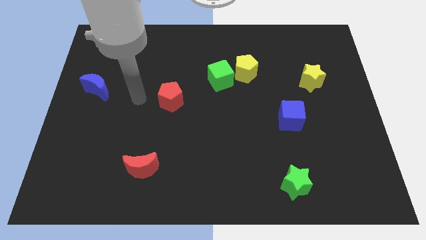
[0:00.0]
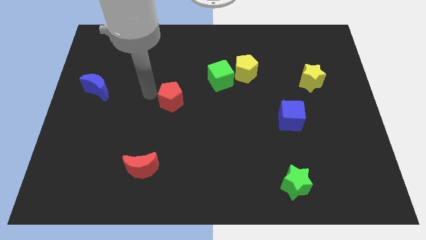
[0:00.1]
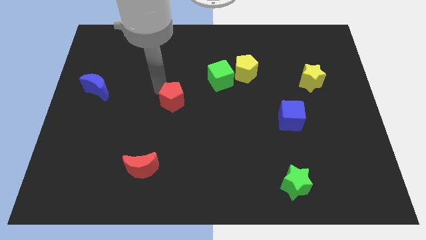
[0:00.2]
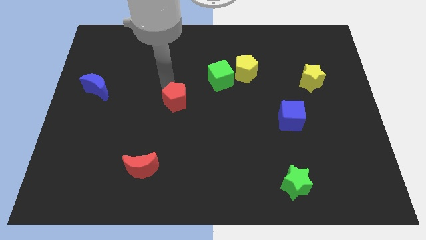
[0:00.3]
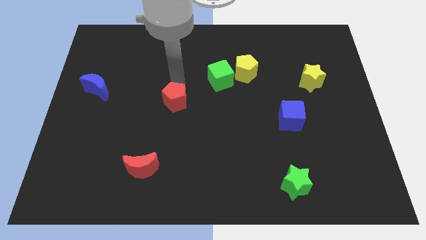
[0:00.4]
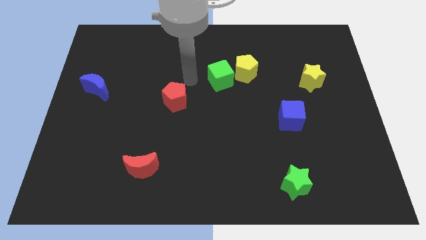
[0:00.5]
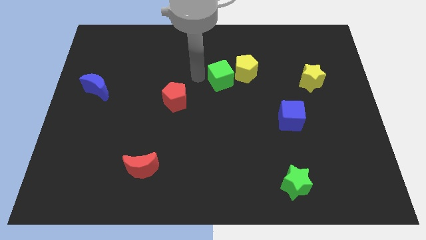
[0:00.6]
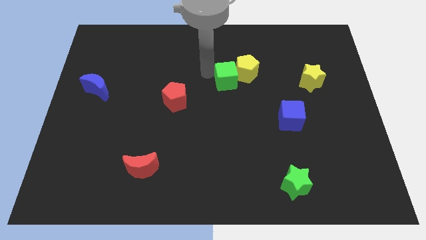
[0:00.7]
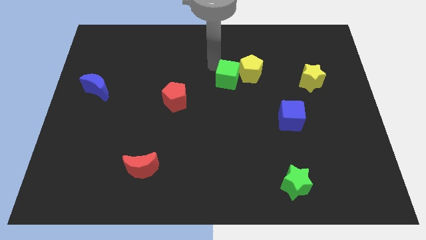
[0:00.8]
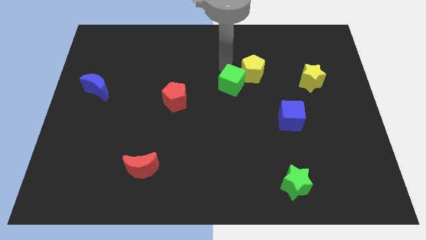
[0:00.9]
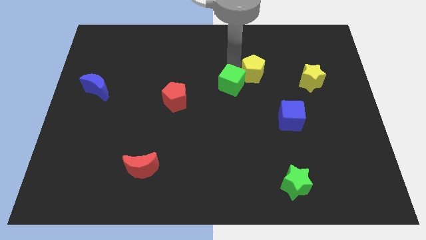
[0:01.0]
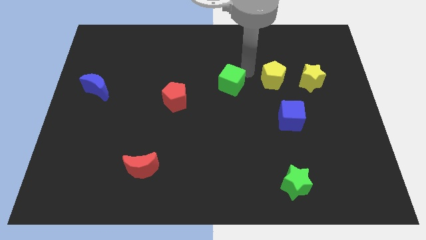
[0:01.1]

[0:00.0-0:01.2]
pull the green cube apart from the yellow pentagon

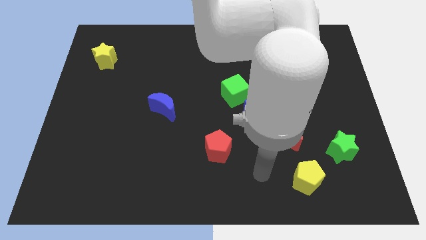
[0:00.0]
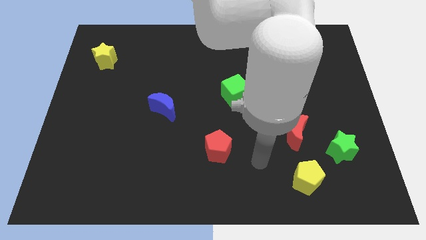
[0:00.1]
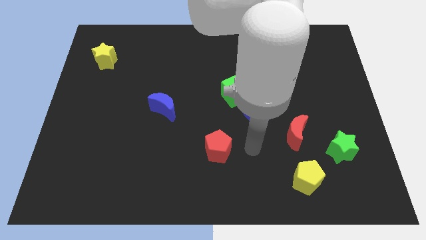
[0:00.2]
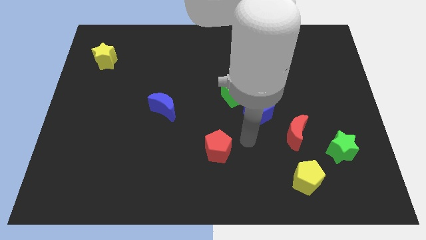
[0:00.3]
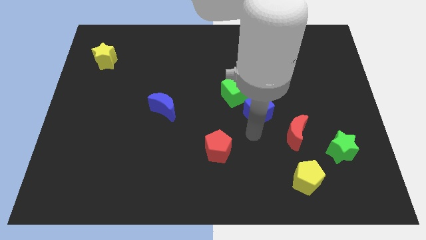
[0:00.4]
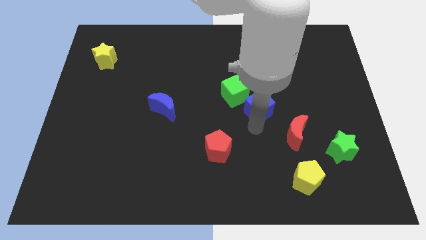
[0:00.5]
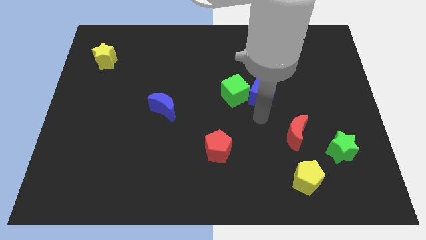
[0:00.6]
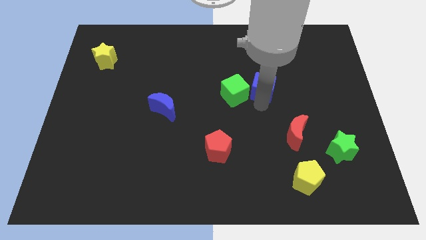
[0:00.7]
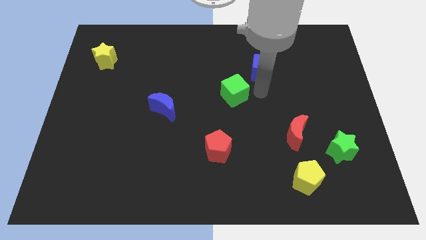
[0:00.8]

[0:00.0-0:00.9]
separate the green cube from the blue cube

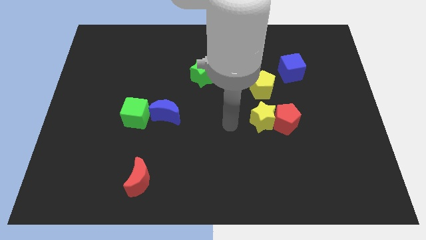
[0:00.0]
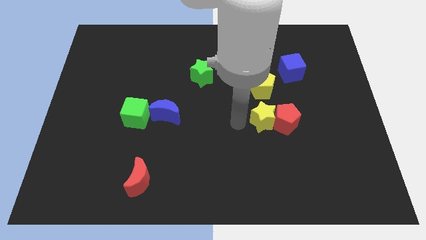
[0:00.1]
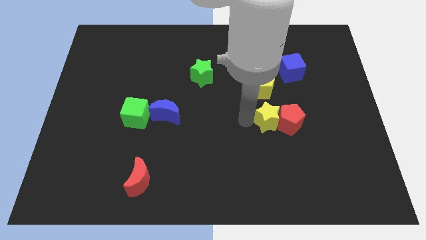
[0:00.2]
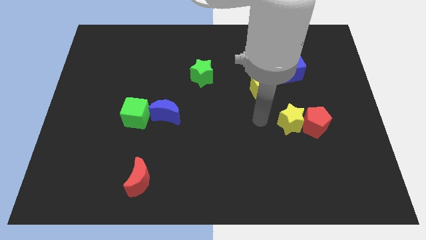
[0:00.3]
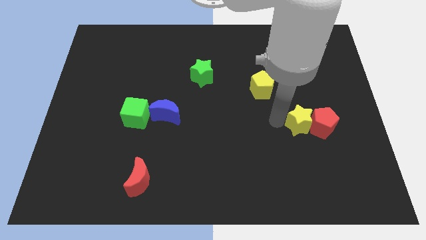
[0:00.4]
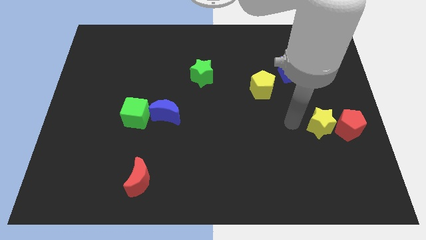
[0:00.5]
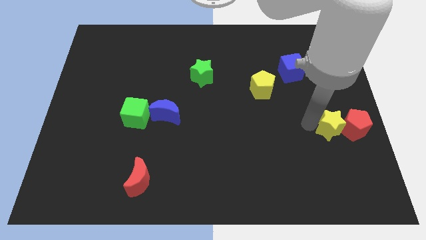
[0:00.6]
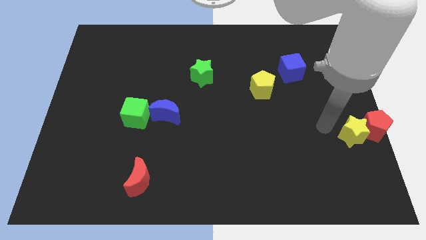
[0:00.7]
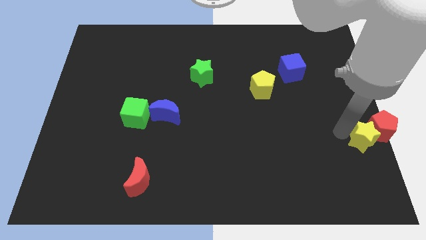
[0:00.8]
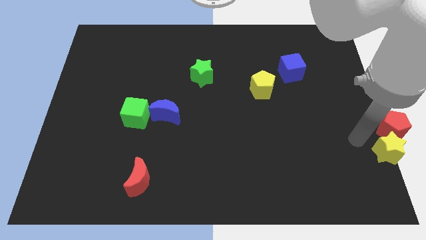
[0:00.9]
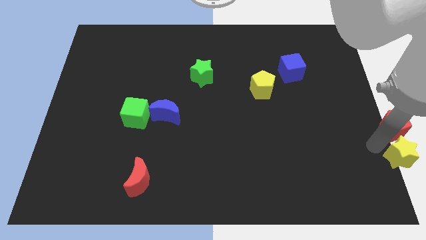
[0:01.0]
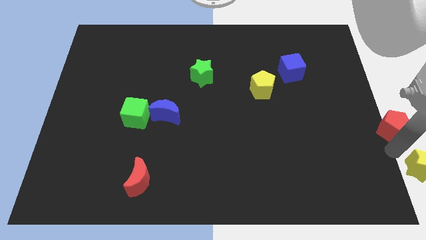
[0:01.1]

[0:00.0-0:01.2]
move the red pentagon away from the yellow star

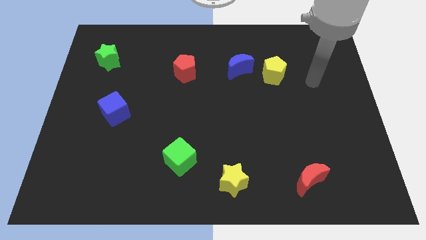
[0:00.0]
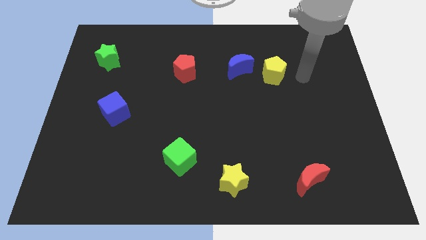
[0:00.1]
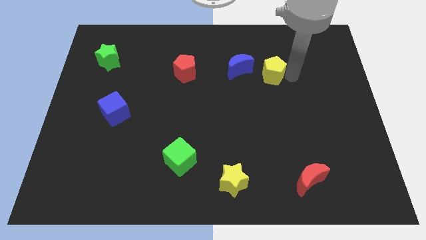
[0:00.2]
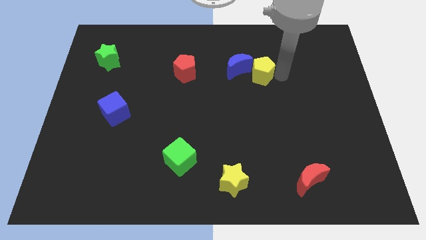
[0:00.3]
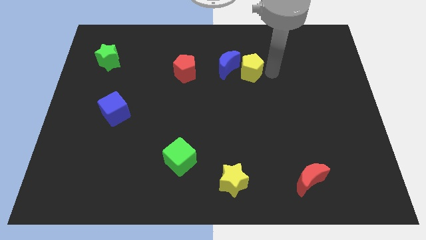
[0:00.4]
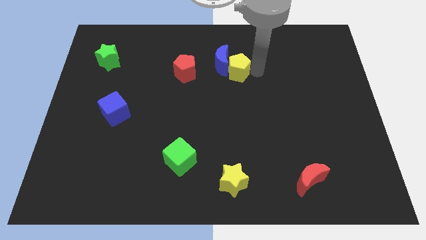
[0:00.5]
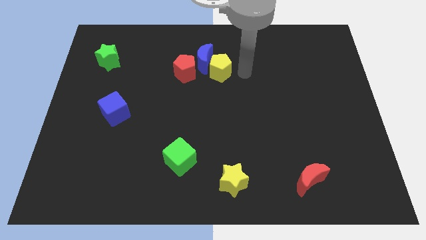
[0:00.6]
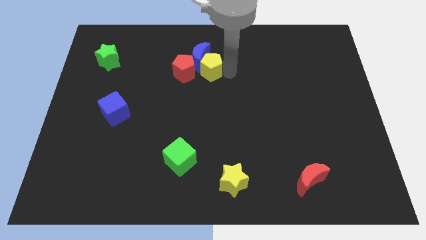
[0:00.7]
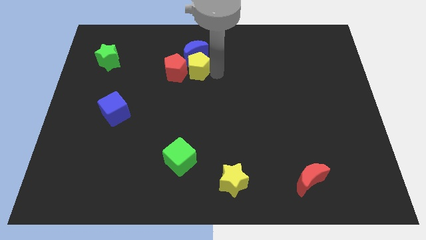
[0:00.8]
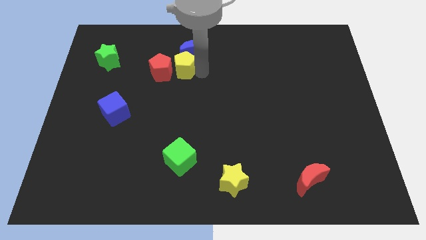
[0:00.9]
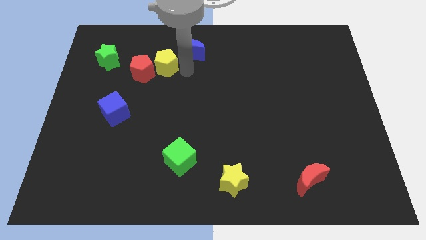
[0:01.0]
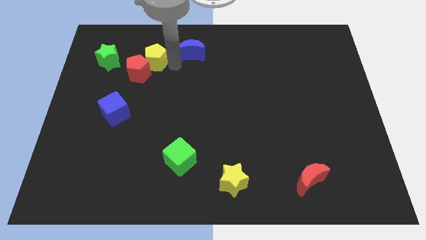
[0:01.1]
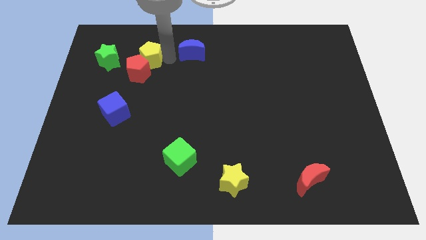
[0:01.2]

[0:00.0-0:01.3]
pull the blue moon apart from the yellow pentagon

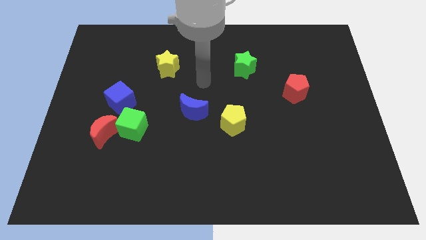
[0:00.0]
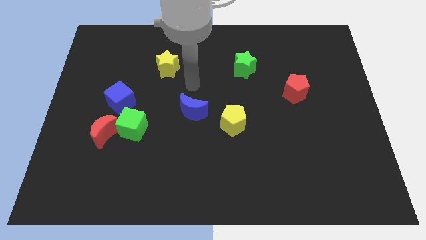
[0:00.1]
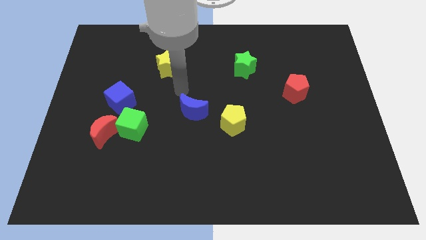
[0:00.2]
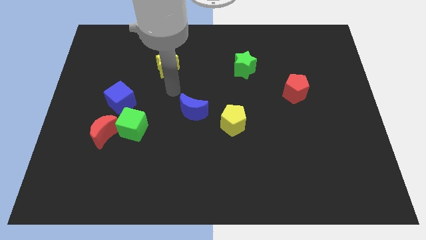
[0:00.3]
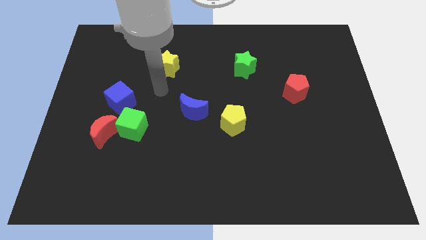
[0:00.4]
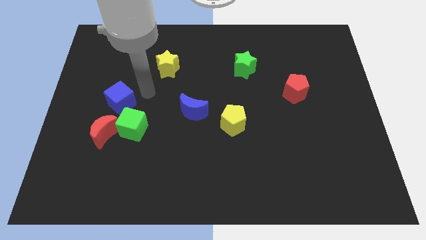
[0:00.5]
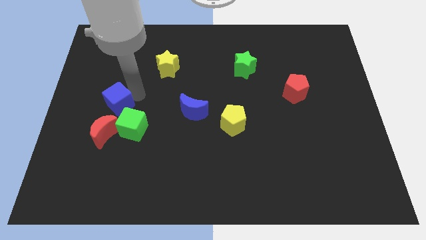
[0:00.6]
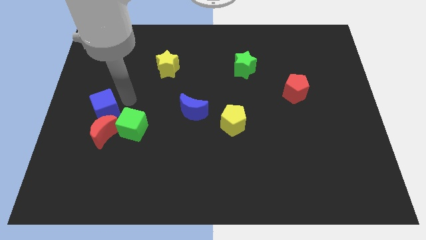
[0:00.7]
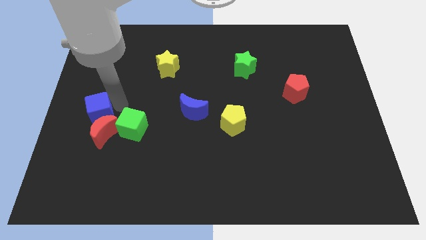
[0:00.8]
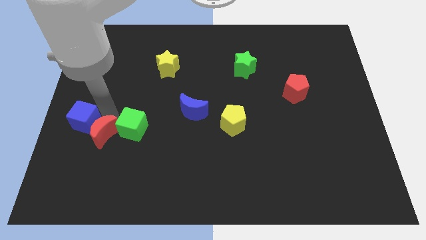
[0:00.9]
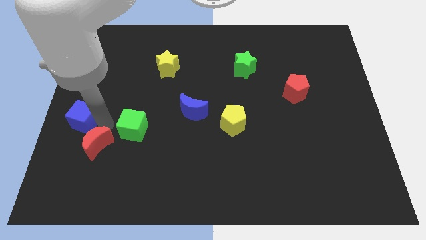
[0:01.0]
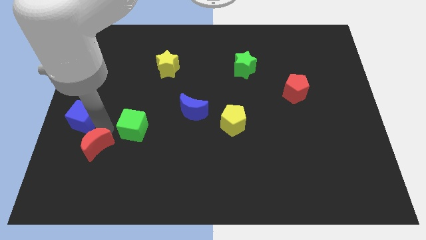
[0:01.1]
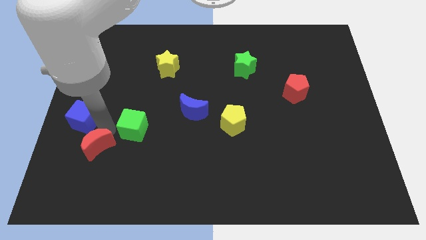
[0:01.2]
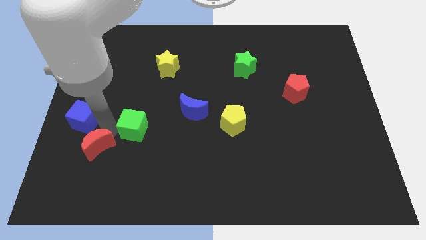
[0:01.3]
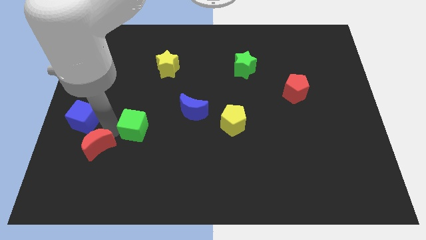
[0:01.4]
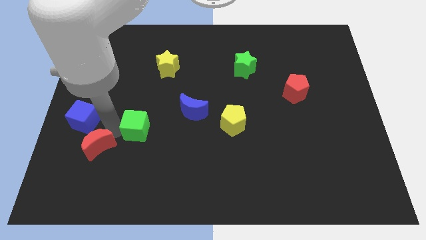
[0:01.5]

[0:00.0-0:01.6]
move the green cube away from the red moon and blue cube

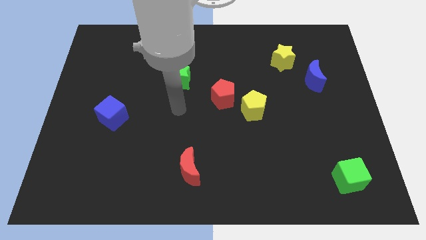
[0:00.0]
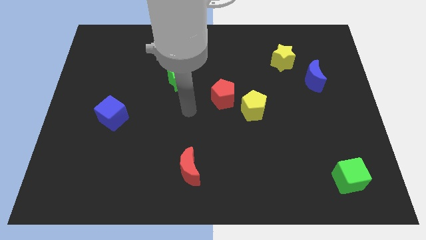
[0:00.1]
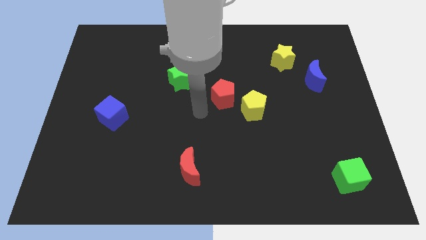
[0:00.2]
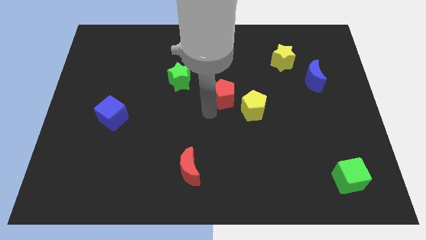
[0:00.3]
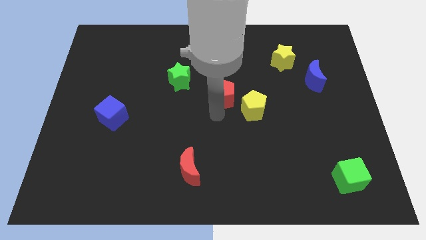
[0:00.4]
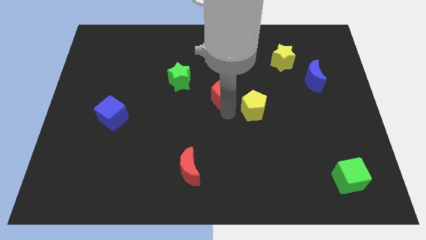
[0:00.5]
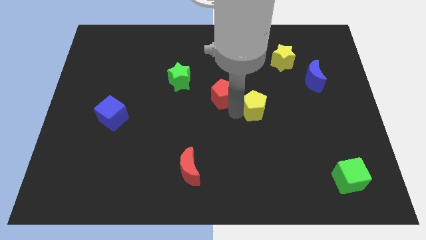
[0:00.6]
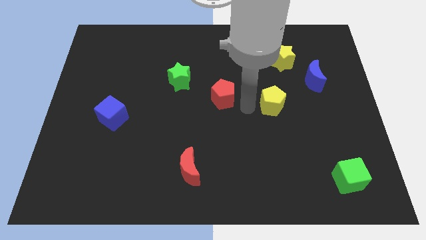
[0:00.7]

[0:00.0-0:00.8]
separate the red pentagon from the yellow pentagon

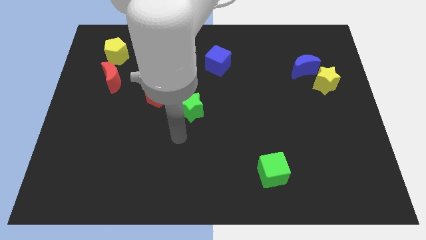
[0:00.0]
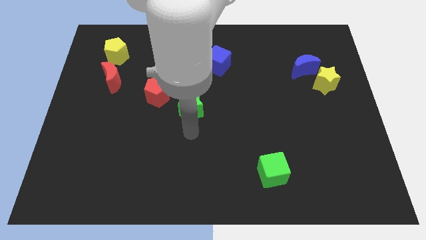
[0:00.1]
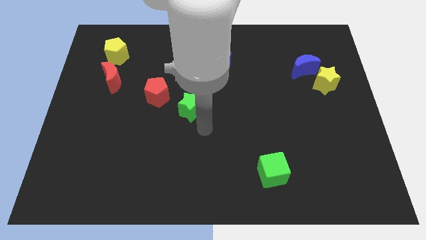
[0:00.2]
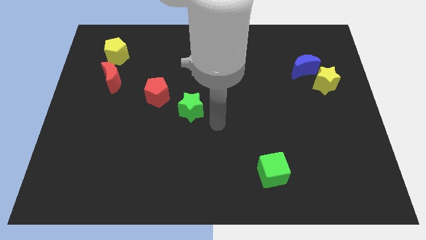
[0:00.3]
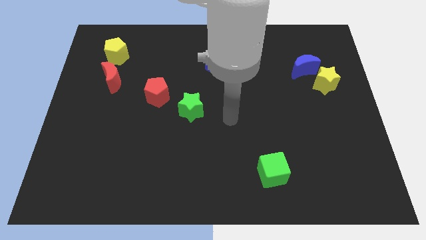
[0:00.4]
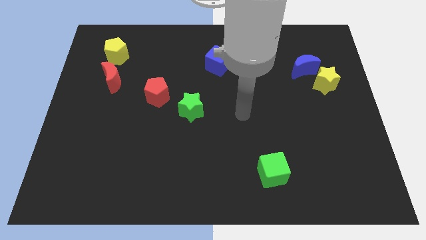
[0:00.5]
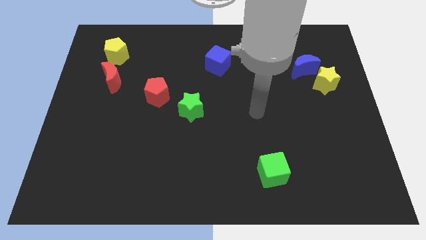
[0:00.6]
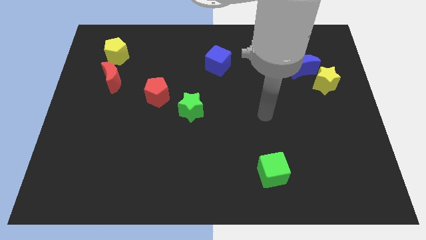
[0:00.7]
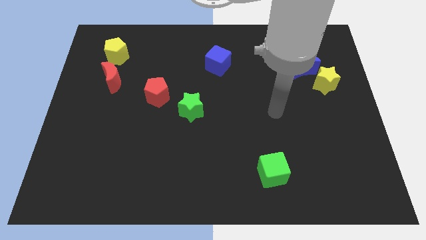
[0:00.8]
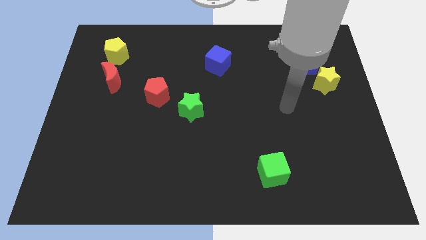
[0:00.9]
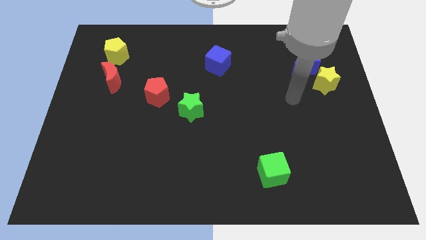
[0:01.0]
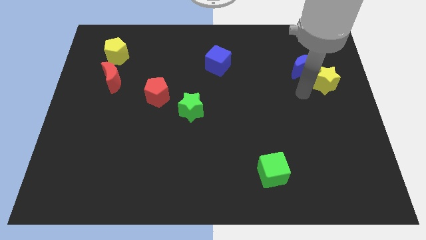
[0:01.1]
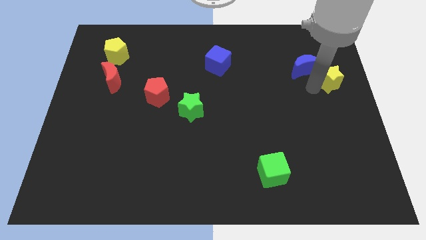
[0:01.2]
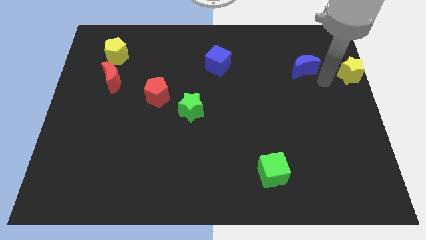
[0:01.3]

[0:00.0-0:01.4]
separate the blue moon from the yellow star

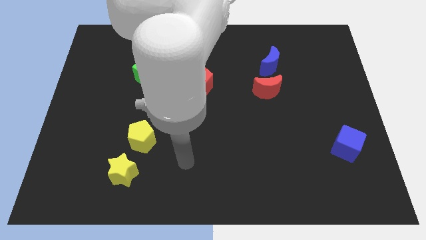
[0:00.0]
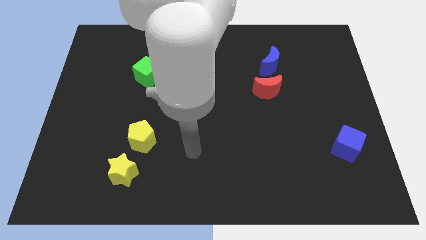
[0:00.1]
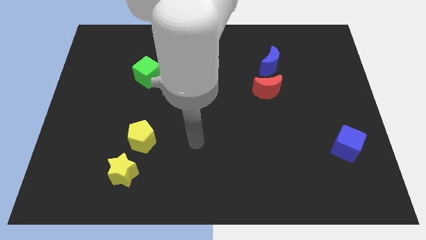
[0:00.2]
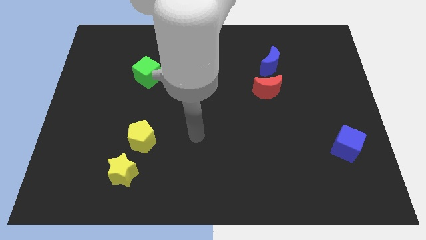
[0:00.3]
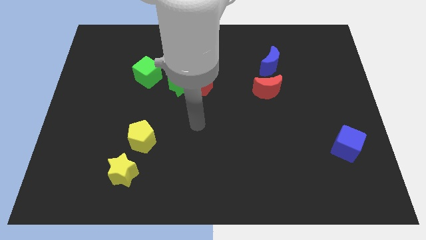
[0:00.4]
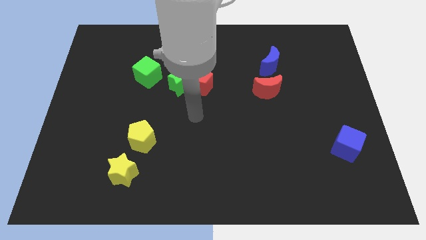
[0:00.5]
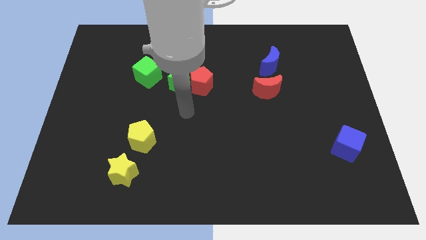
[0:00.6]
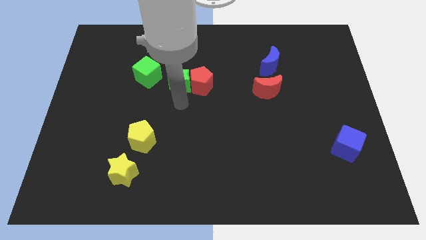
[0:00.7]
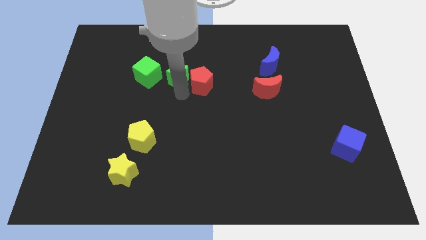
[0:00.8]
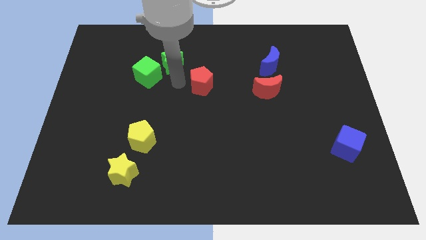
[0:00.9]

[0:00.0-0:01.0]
pull the red pentagon apart from the green star

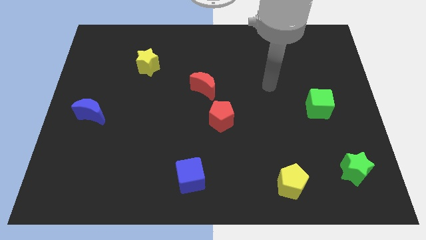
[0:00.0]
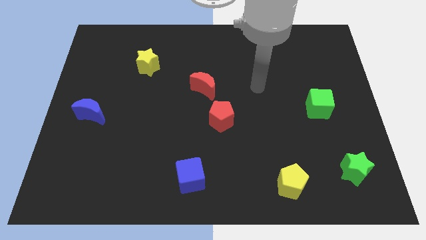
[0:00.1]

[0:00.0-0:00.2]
separate the red moon from the red pentagon
